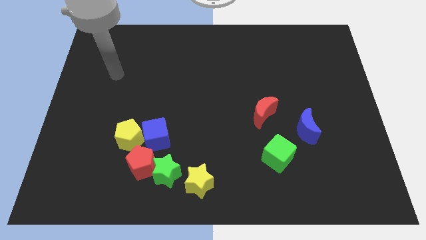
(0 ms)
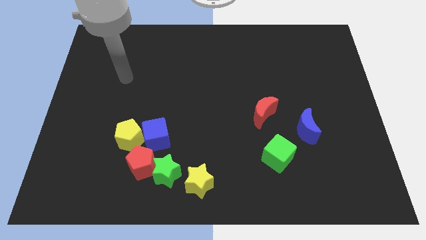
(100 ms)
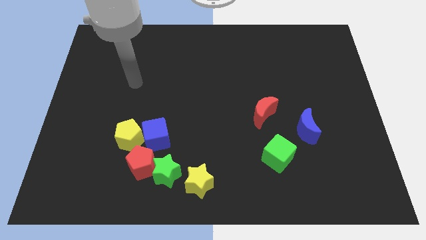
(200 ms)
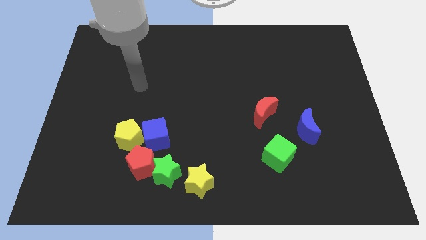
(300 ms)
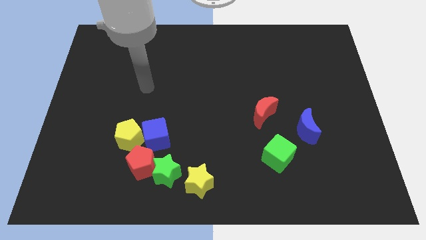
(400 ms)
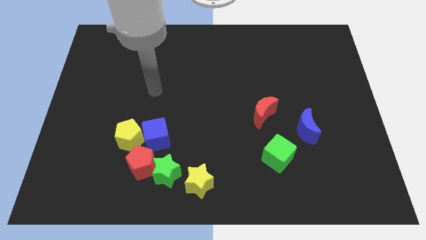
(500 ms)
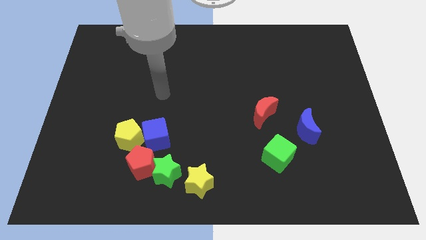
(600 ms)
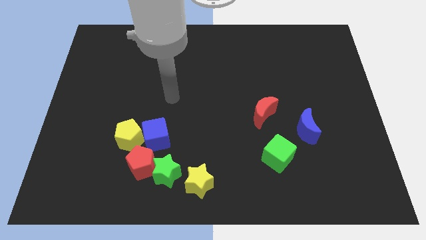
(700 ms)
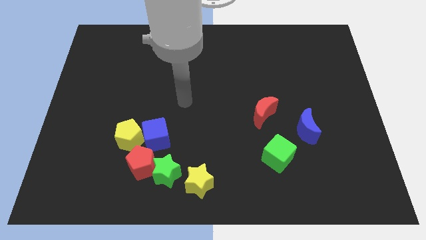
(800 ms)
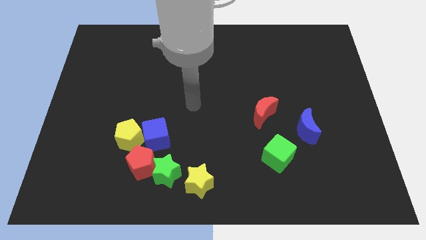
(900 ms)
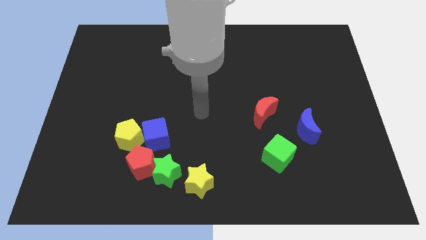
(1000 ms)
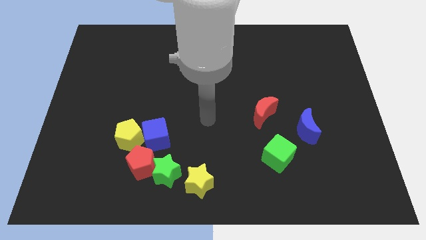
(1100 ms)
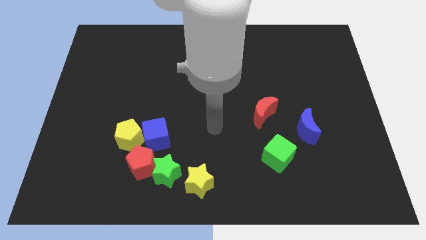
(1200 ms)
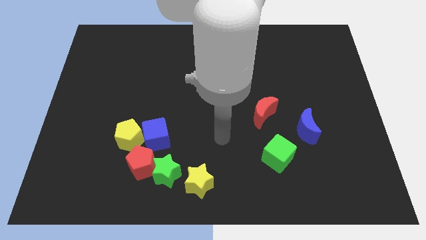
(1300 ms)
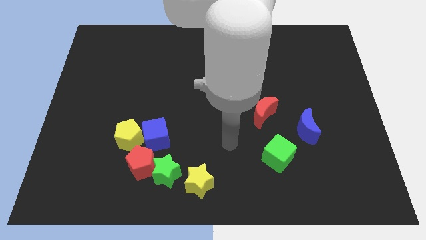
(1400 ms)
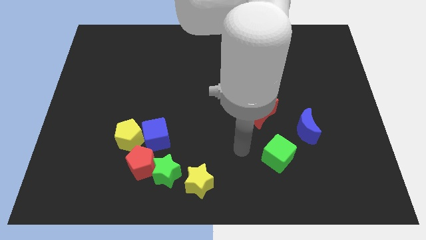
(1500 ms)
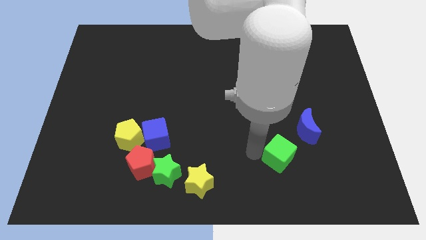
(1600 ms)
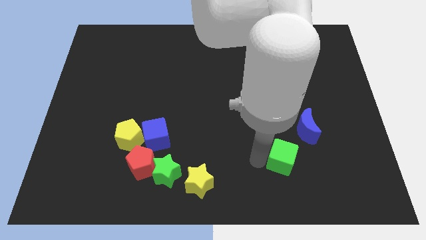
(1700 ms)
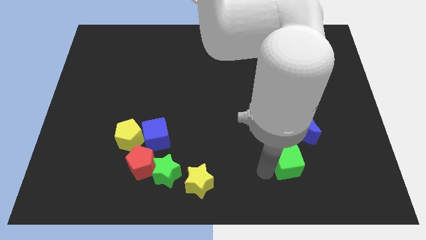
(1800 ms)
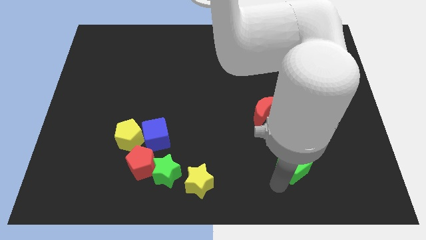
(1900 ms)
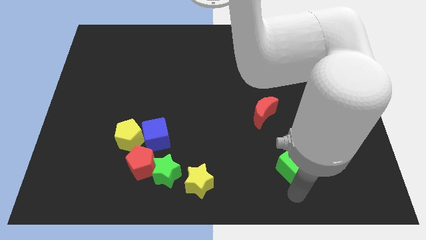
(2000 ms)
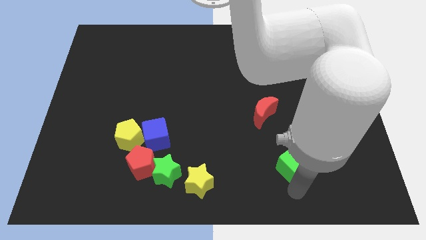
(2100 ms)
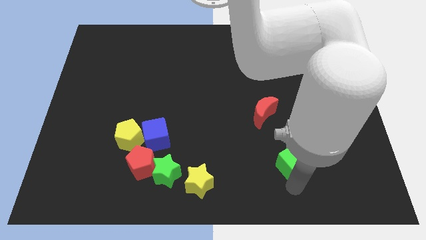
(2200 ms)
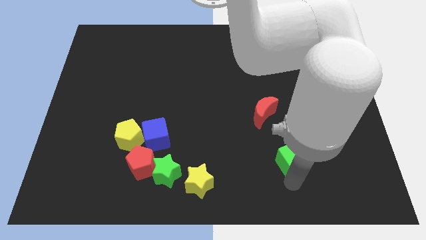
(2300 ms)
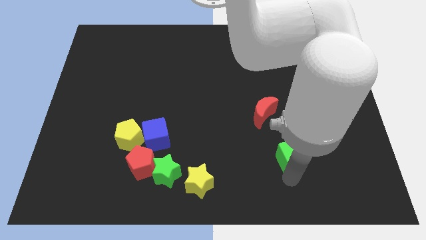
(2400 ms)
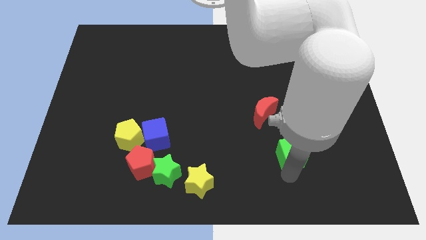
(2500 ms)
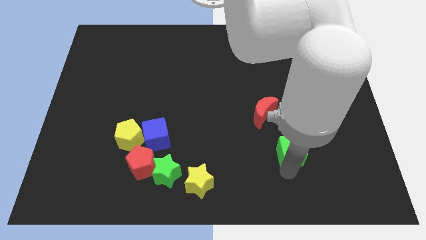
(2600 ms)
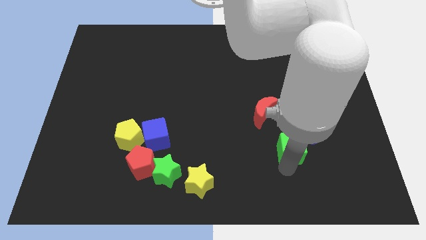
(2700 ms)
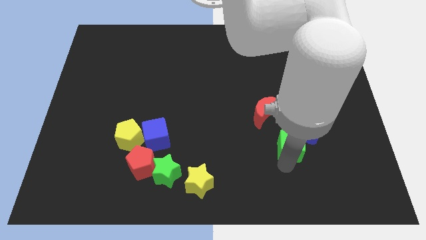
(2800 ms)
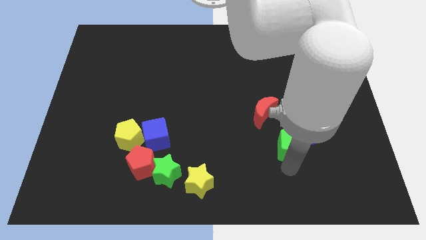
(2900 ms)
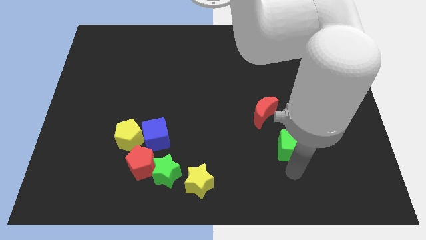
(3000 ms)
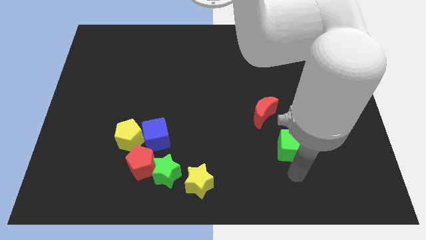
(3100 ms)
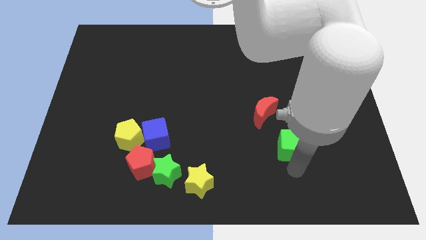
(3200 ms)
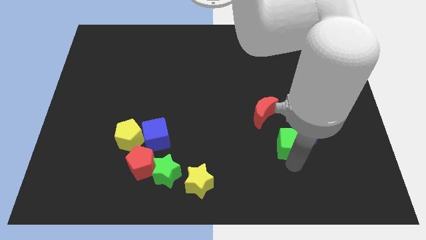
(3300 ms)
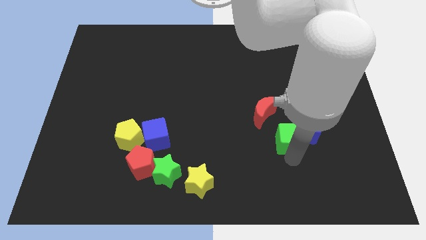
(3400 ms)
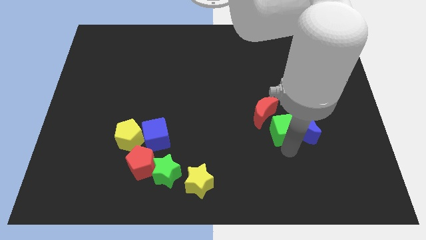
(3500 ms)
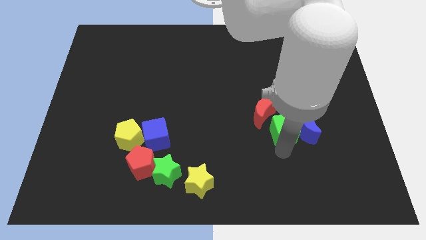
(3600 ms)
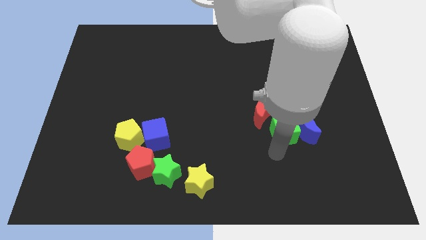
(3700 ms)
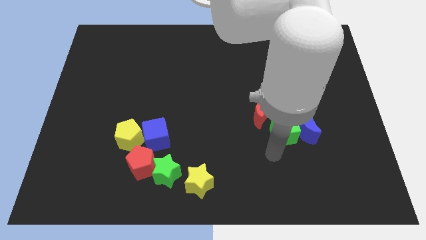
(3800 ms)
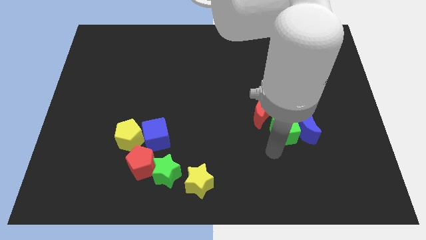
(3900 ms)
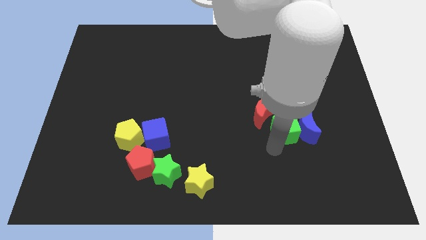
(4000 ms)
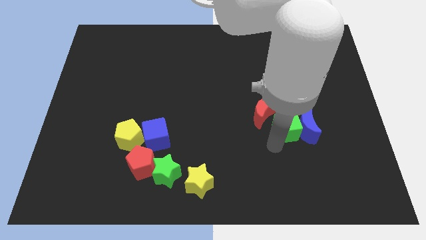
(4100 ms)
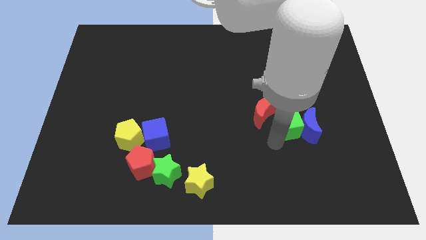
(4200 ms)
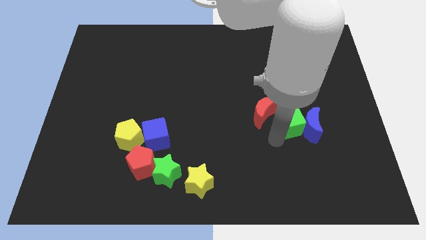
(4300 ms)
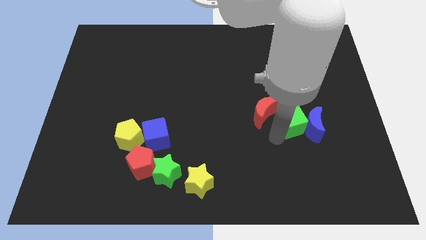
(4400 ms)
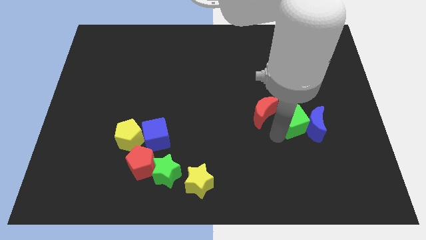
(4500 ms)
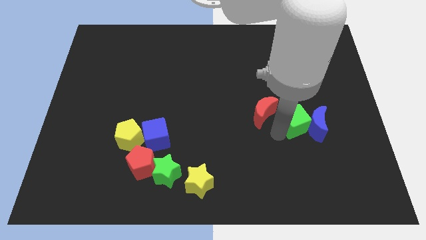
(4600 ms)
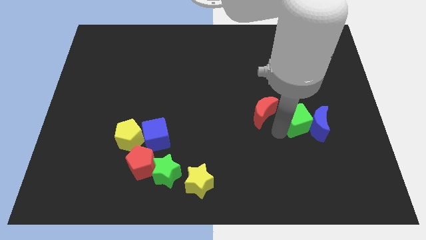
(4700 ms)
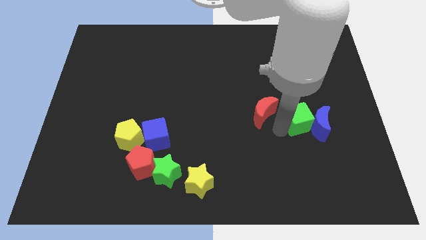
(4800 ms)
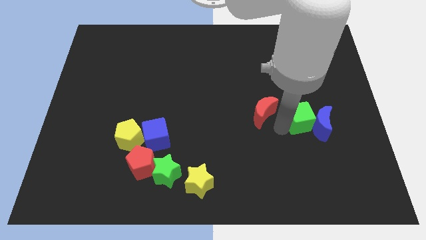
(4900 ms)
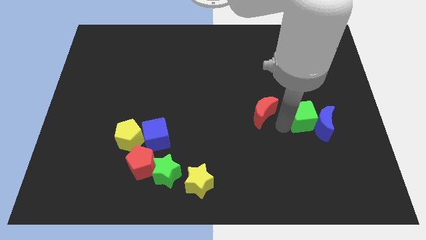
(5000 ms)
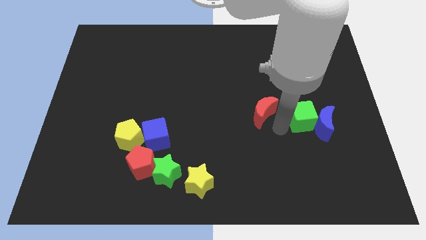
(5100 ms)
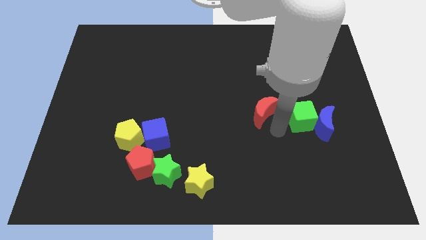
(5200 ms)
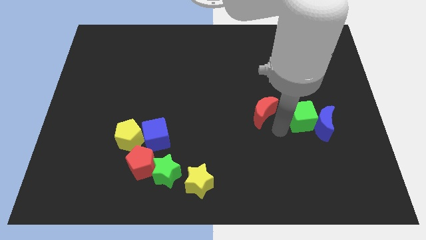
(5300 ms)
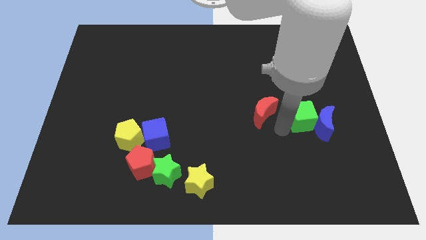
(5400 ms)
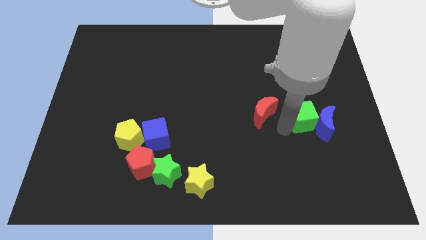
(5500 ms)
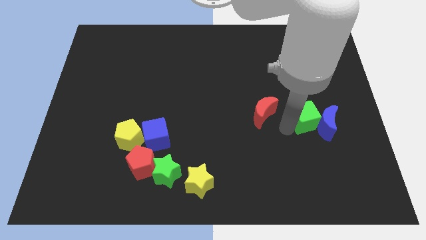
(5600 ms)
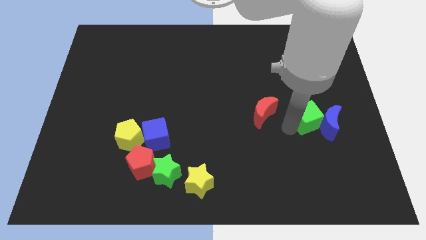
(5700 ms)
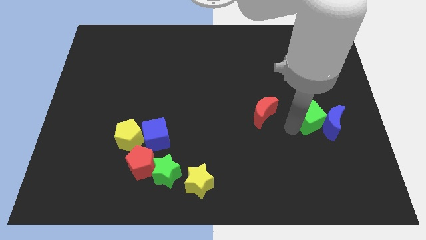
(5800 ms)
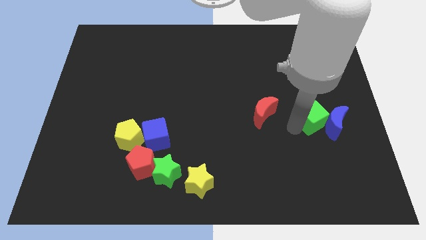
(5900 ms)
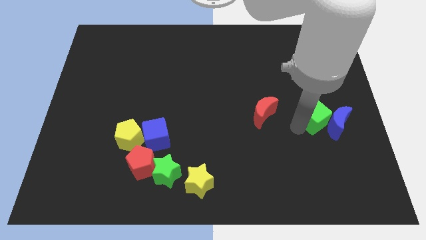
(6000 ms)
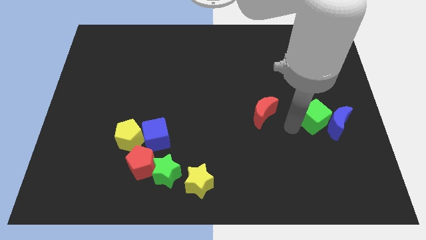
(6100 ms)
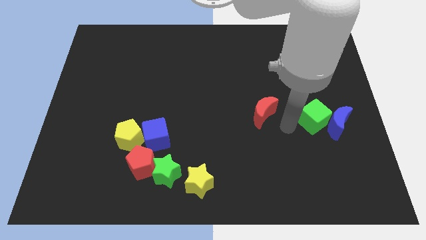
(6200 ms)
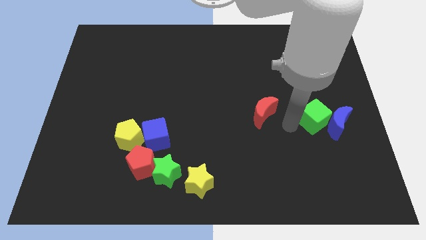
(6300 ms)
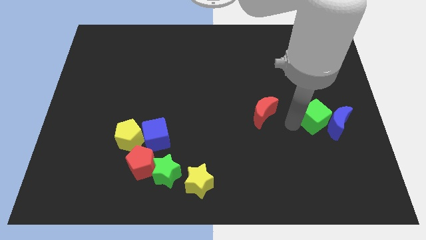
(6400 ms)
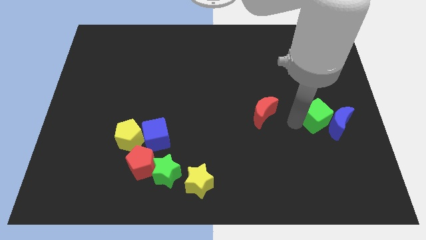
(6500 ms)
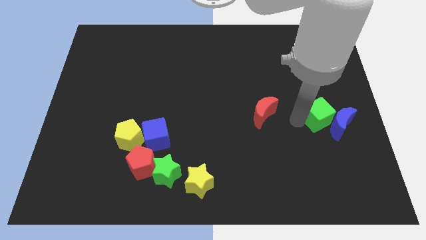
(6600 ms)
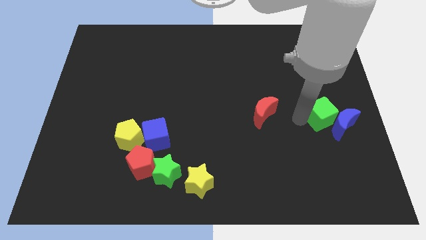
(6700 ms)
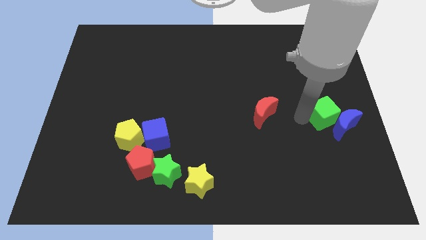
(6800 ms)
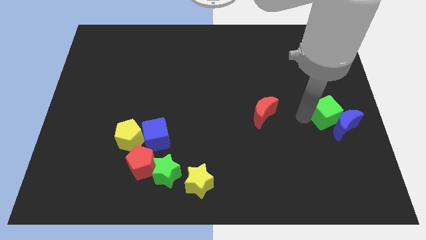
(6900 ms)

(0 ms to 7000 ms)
put the green cube to the right side
